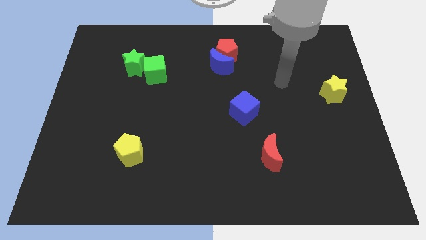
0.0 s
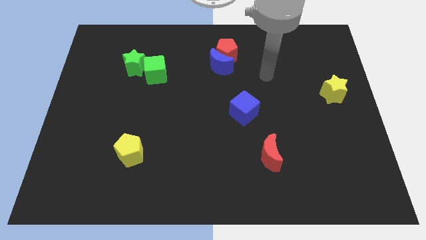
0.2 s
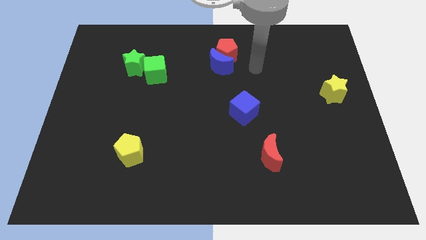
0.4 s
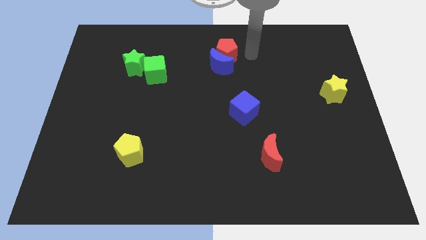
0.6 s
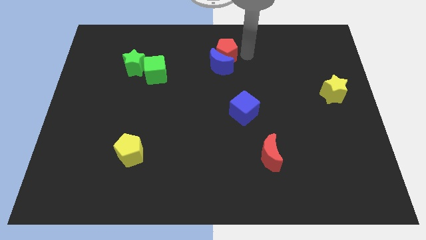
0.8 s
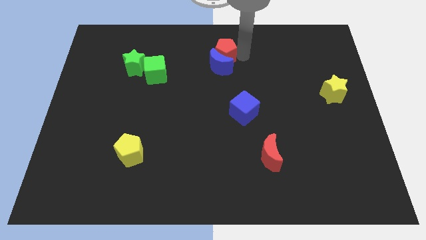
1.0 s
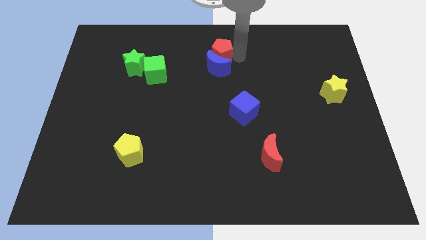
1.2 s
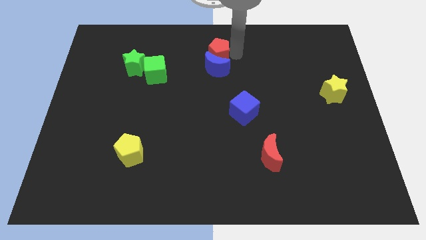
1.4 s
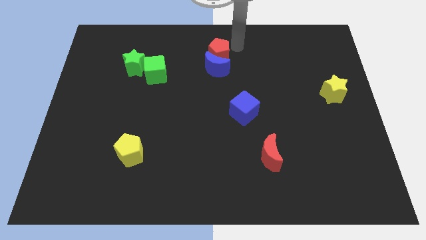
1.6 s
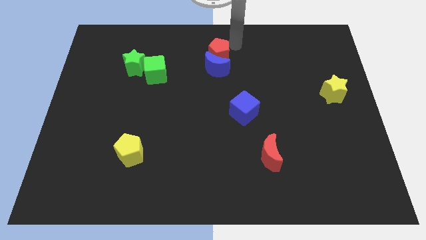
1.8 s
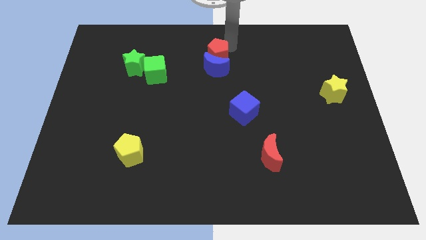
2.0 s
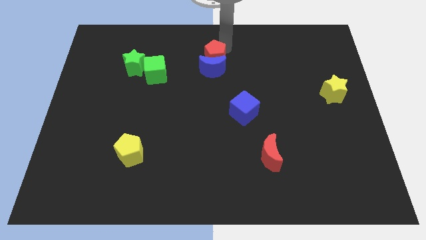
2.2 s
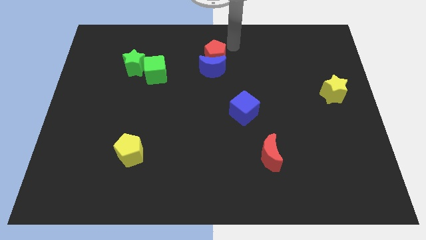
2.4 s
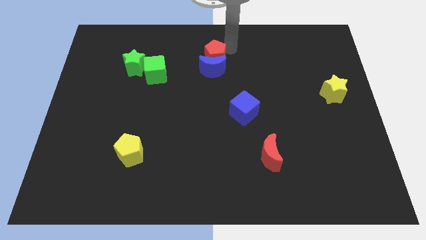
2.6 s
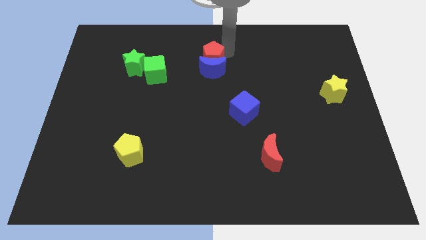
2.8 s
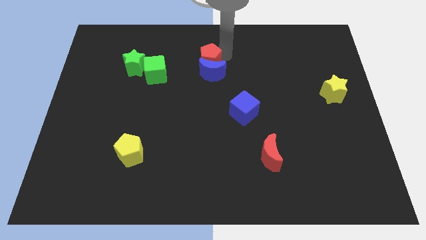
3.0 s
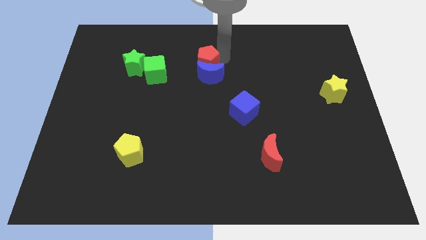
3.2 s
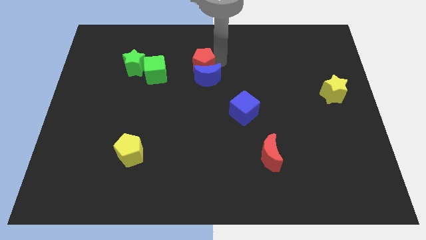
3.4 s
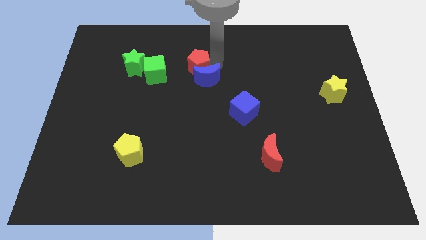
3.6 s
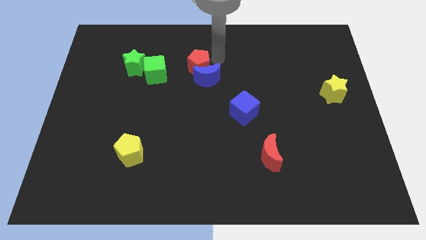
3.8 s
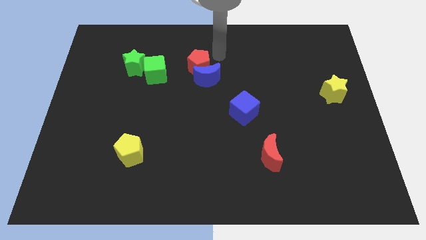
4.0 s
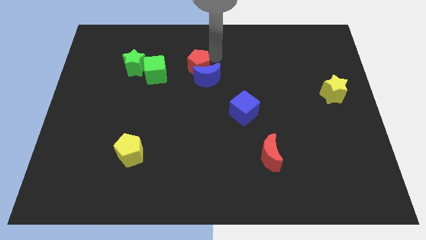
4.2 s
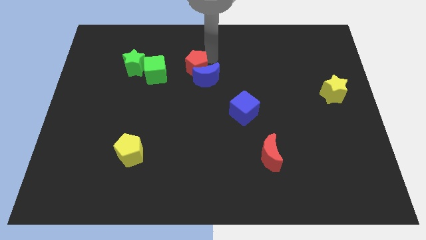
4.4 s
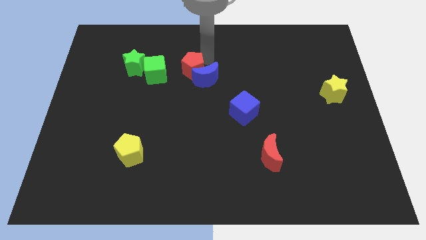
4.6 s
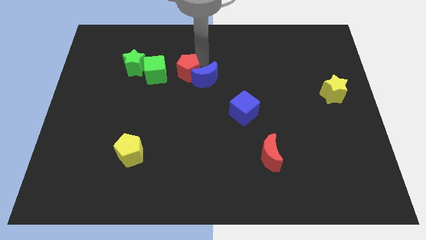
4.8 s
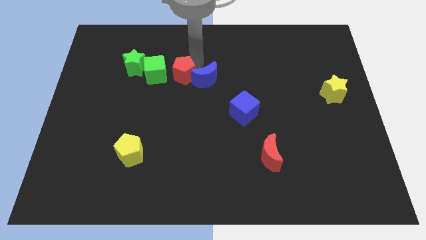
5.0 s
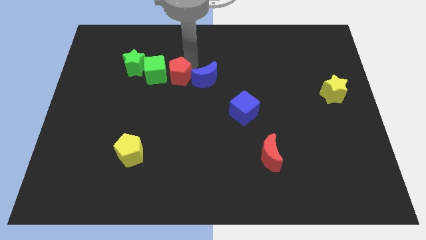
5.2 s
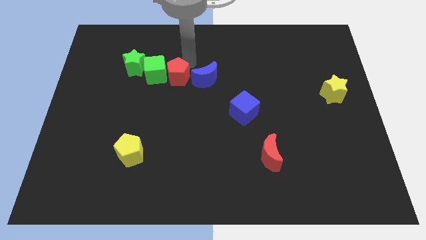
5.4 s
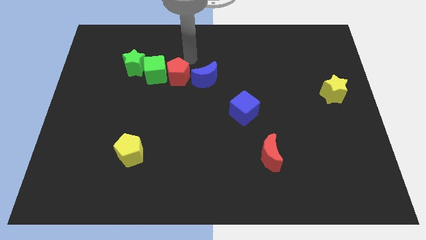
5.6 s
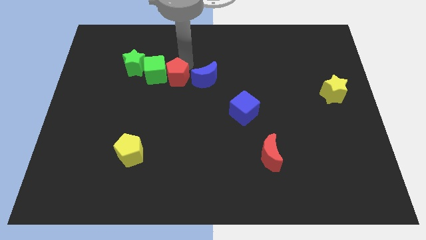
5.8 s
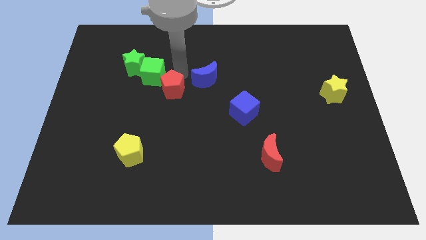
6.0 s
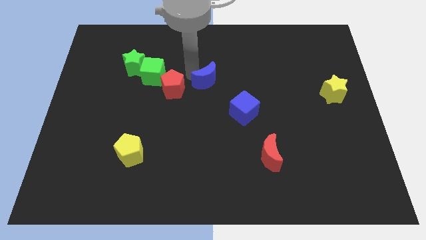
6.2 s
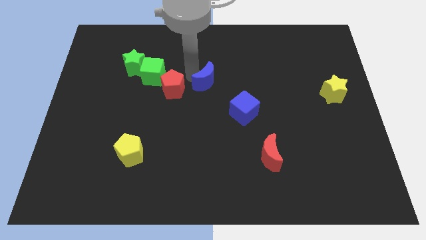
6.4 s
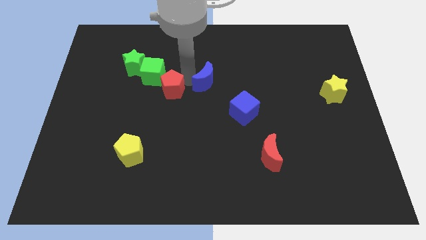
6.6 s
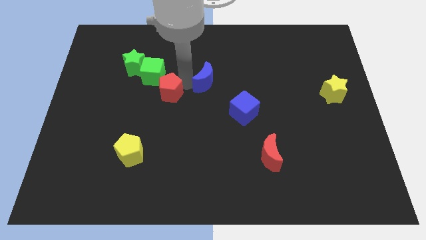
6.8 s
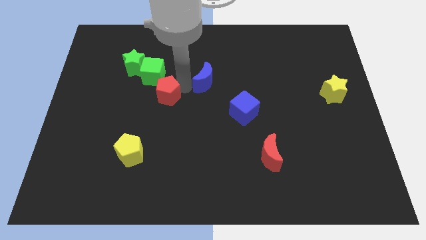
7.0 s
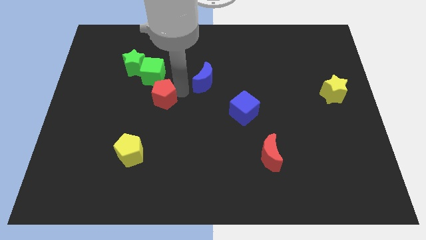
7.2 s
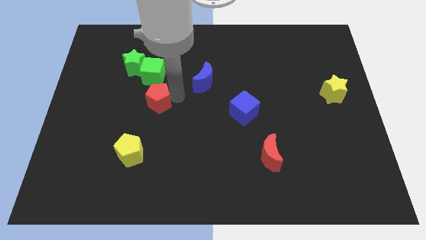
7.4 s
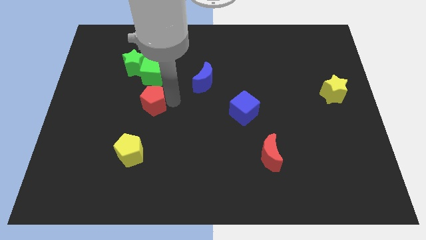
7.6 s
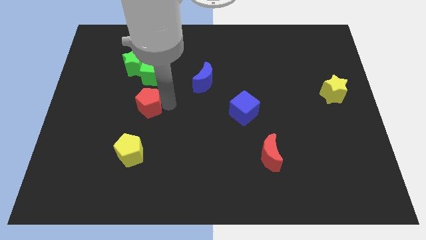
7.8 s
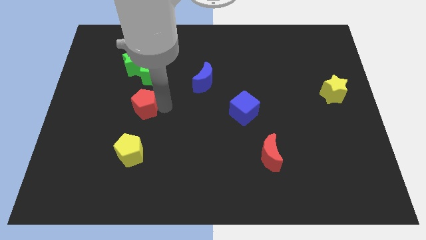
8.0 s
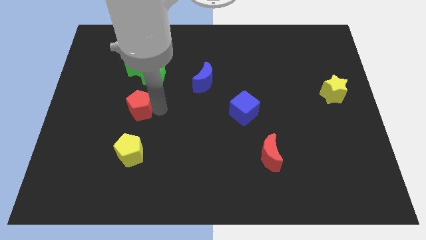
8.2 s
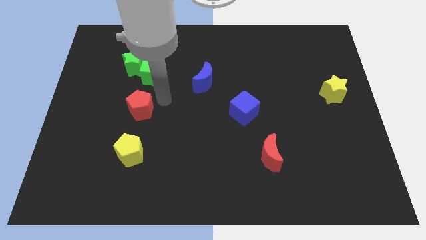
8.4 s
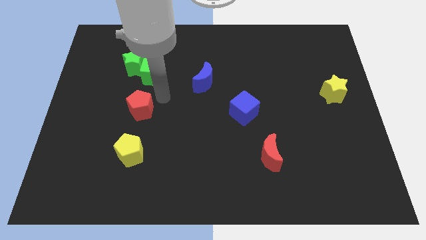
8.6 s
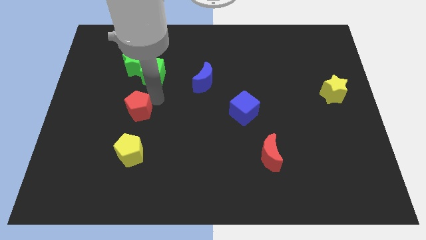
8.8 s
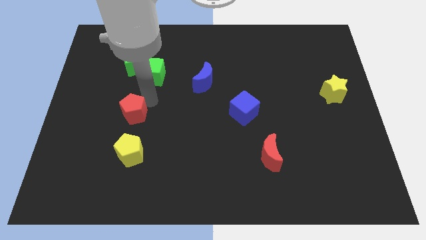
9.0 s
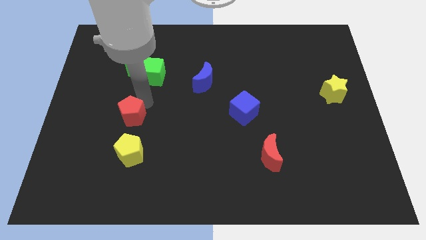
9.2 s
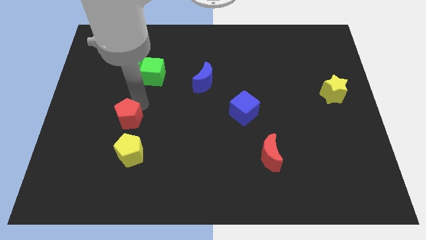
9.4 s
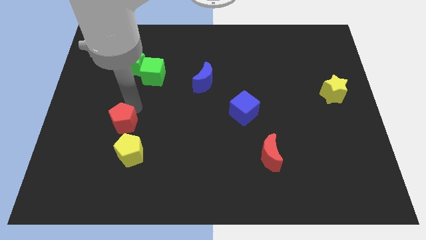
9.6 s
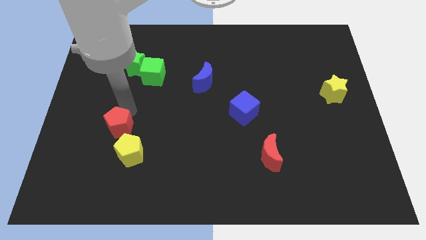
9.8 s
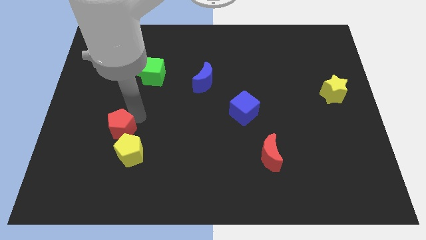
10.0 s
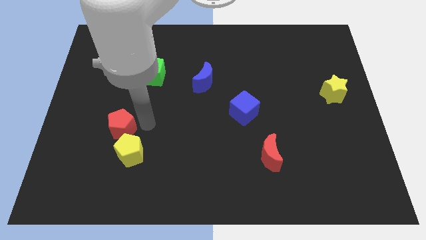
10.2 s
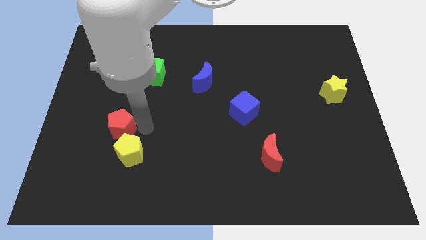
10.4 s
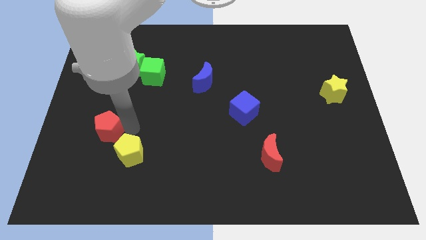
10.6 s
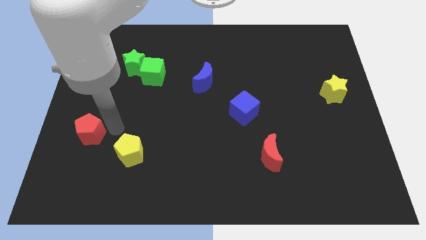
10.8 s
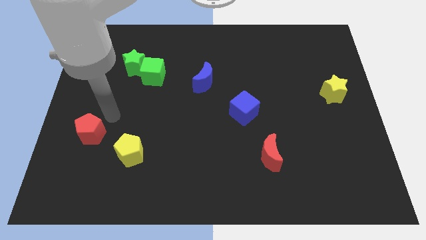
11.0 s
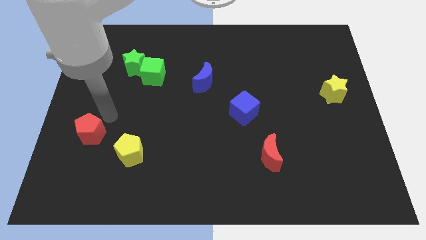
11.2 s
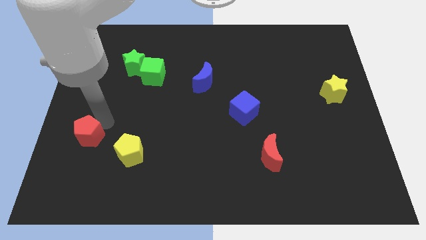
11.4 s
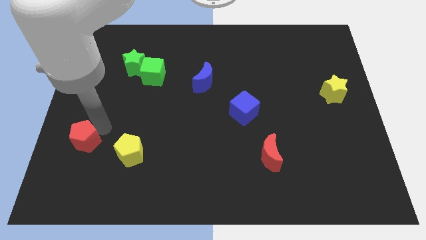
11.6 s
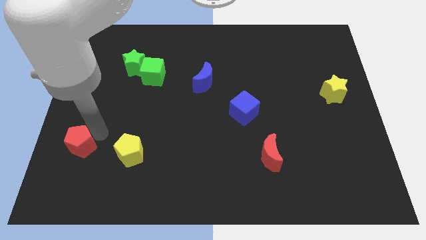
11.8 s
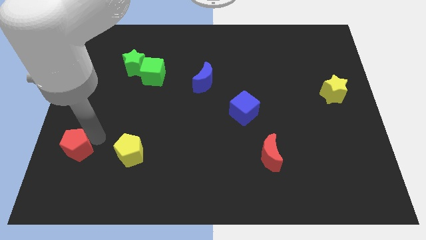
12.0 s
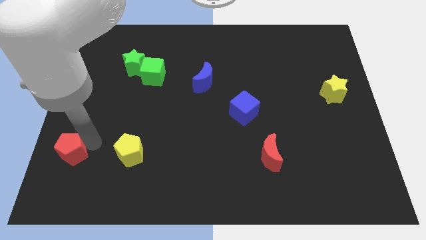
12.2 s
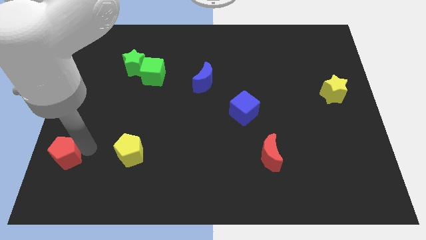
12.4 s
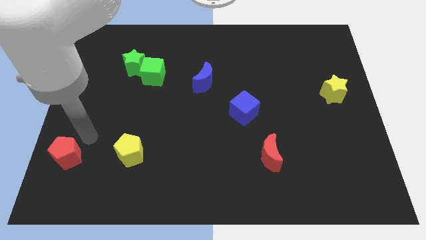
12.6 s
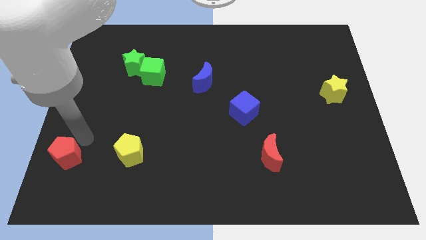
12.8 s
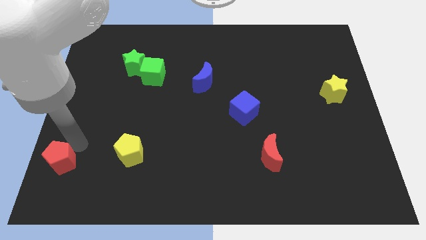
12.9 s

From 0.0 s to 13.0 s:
slide the red pentagon to the bottom left corner
